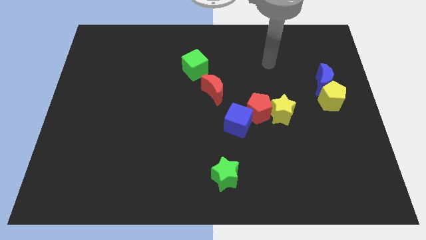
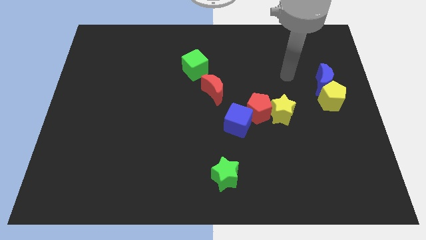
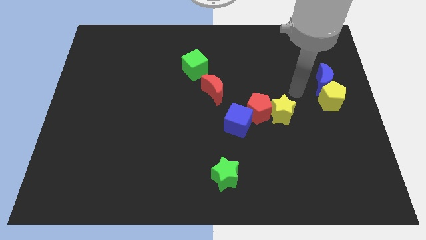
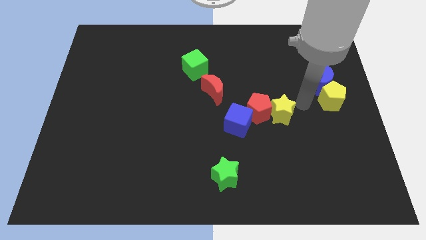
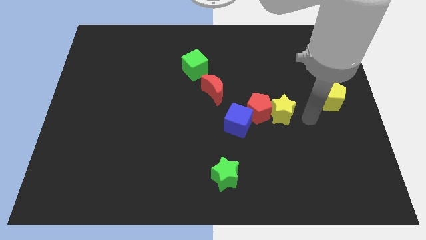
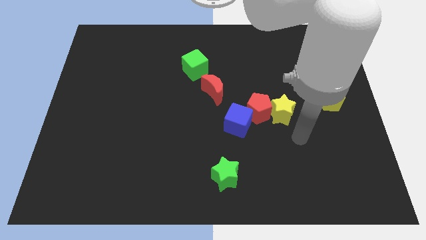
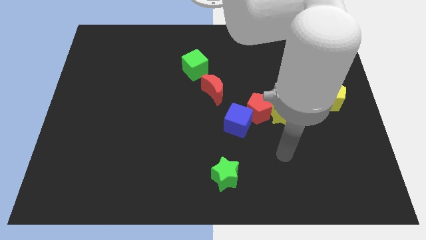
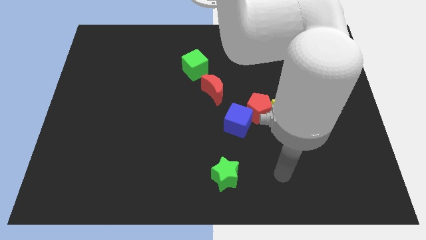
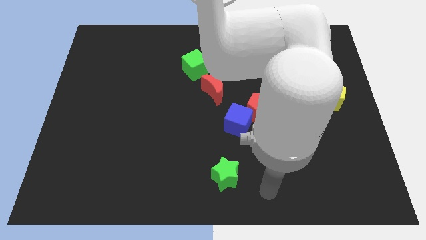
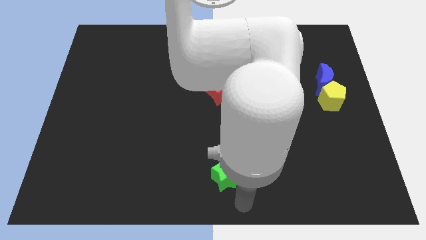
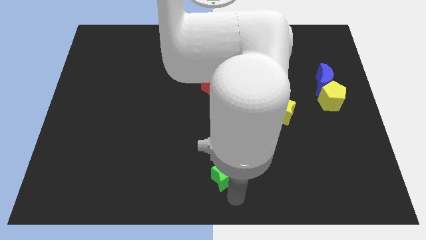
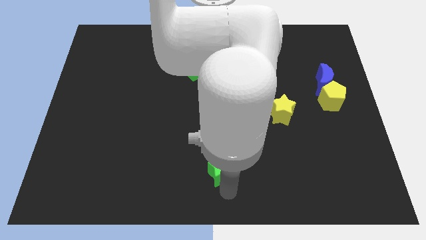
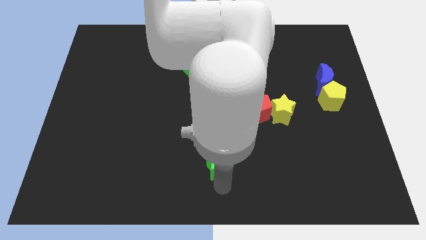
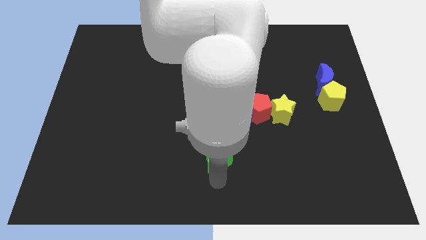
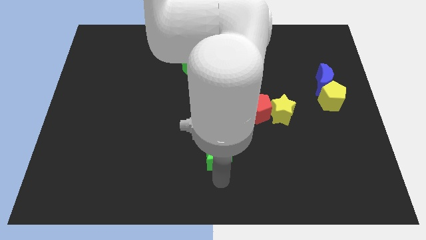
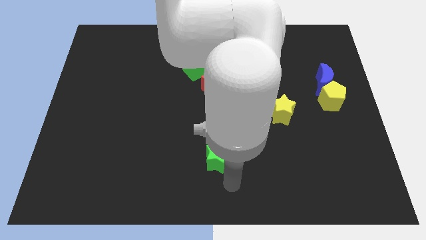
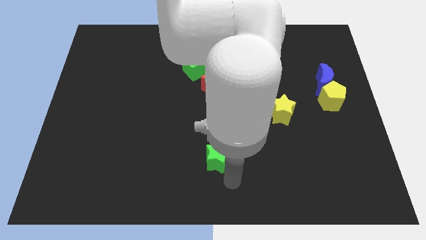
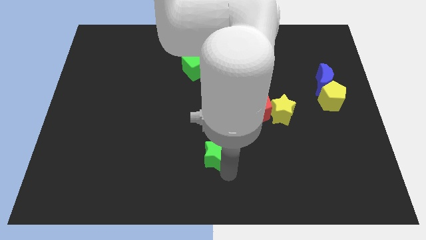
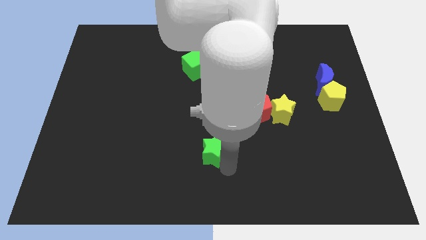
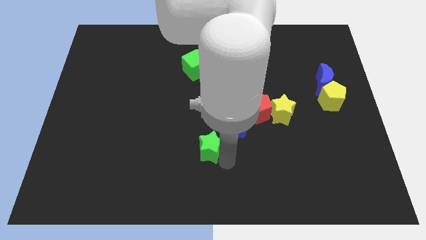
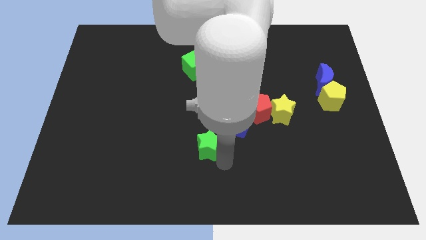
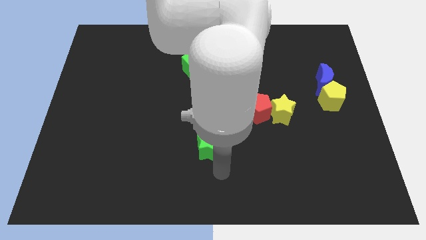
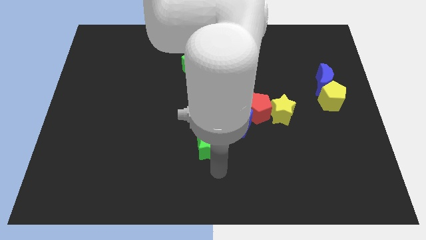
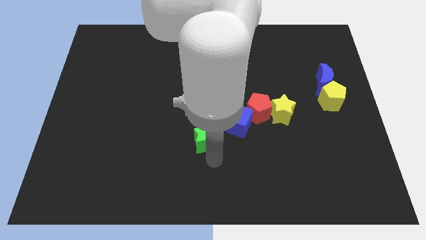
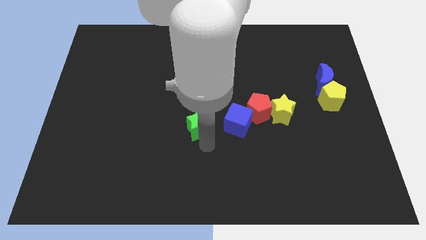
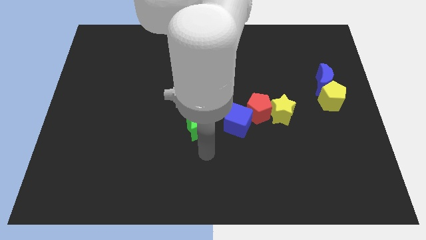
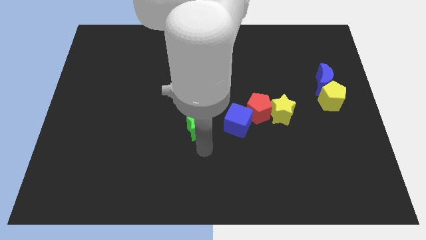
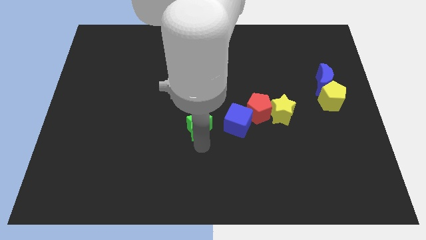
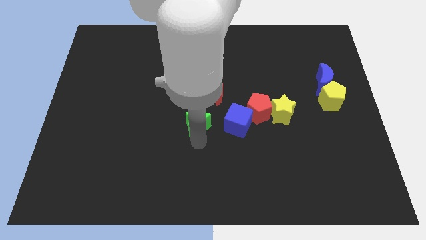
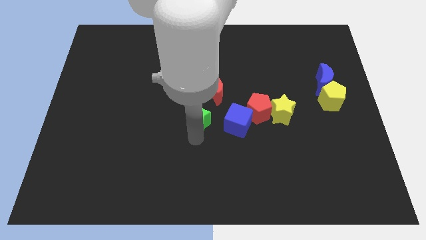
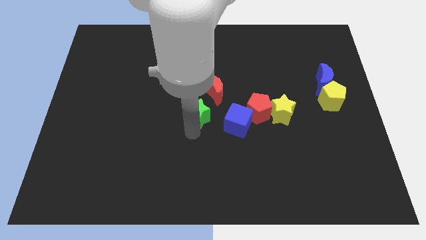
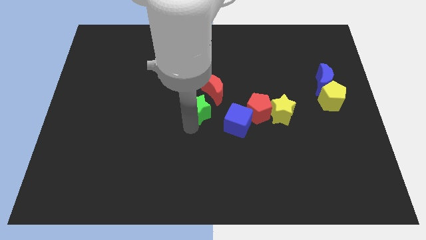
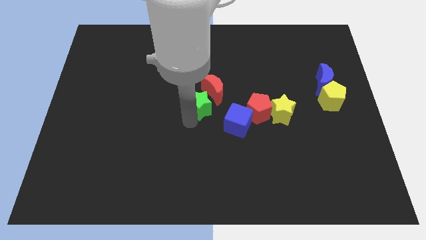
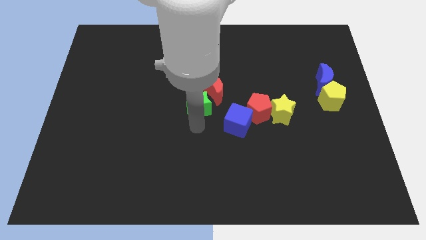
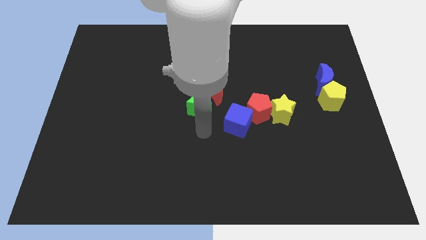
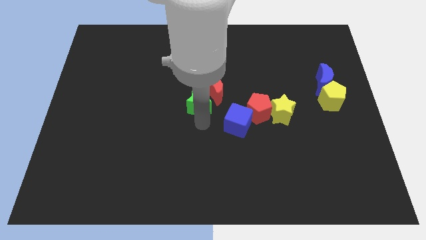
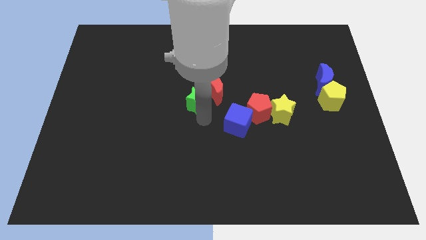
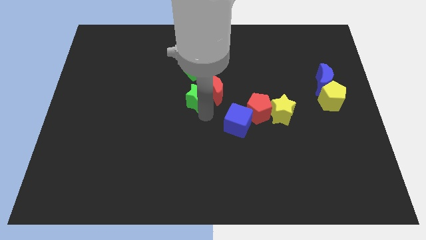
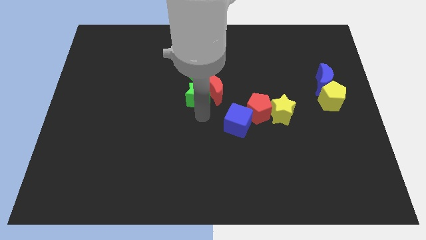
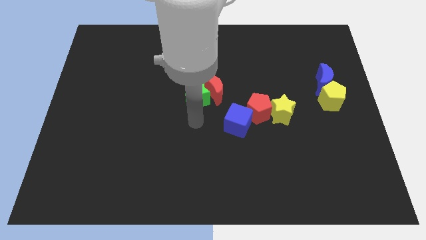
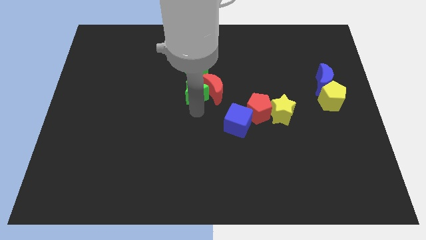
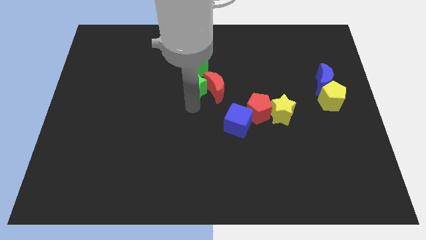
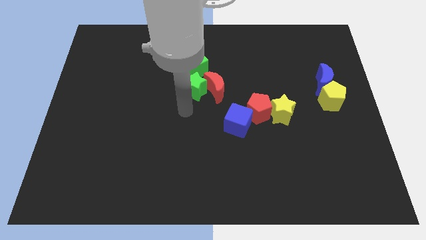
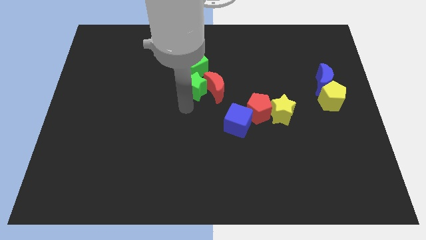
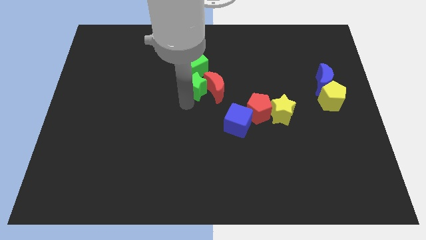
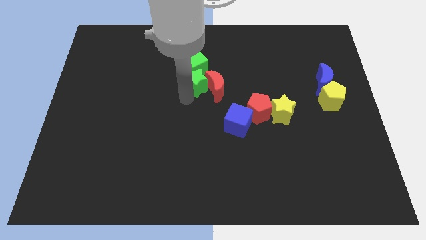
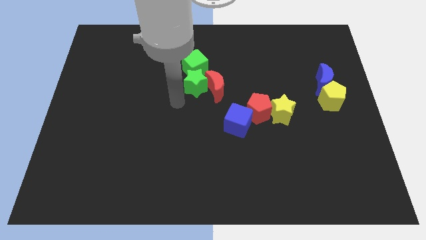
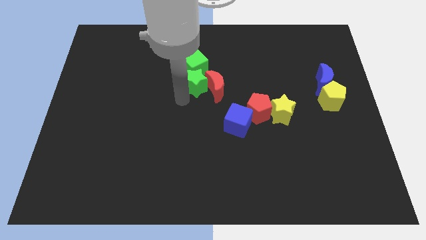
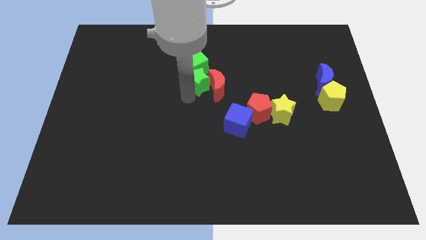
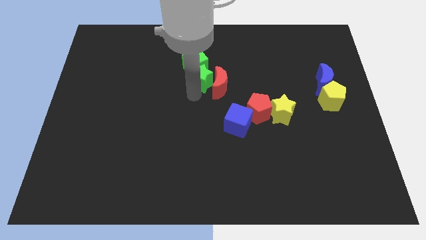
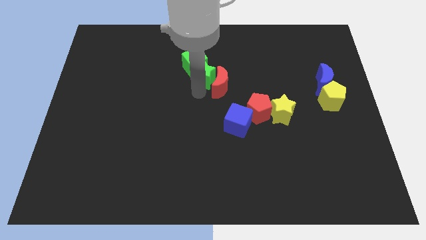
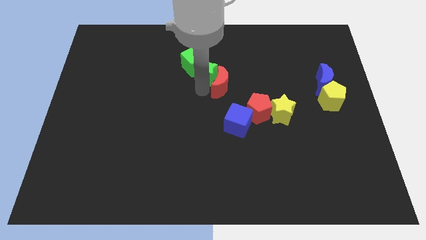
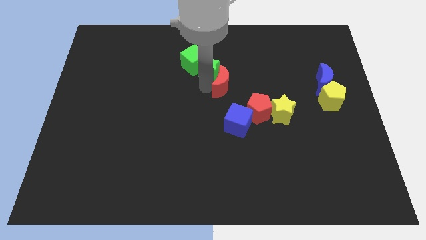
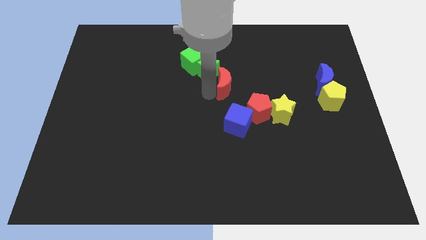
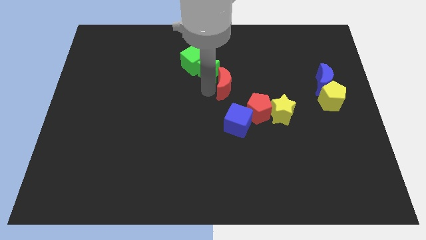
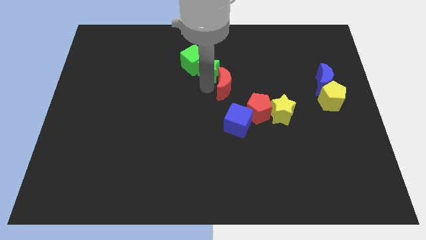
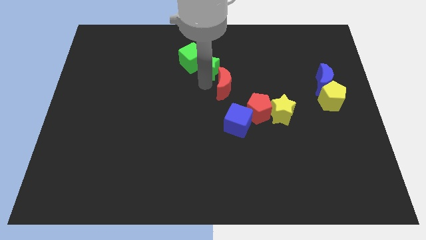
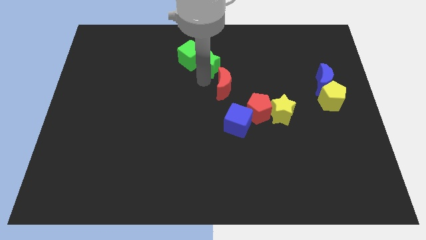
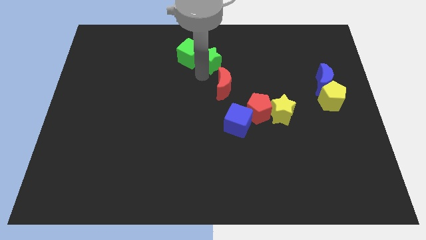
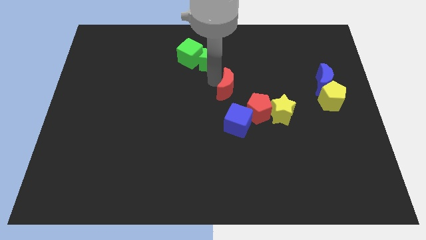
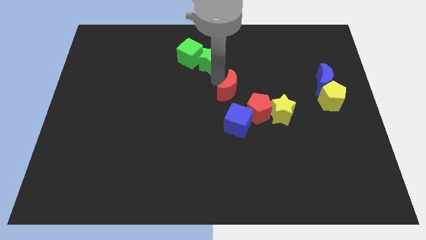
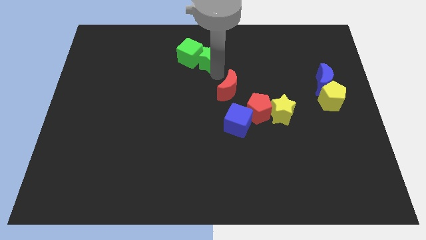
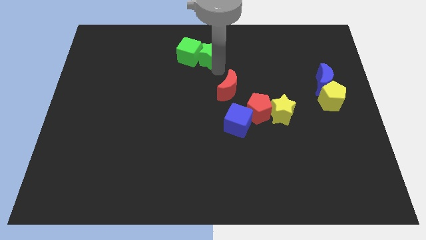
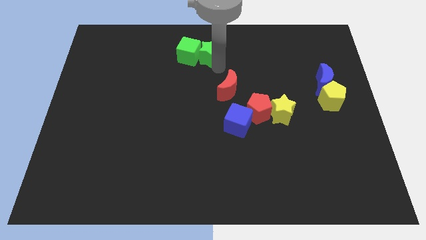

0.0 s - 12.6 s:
push the green star to the top
